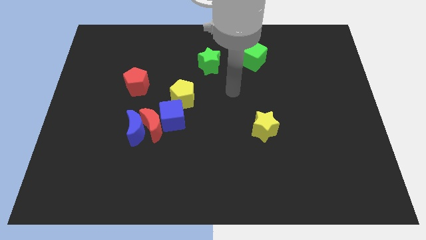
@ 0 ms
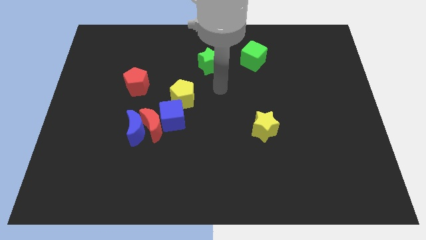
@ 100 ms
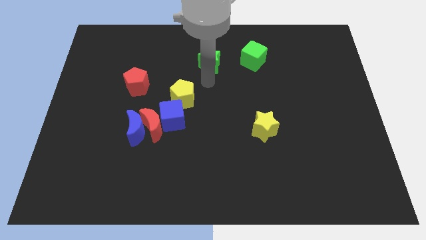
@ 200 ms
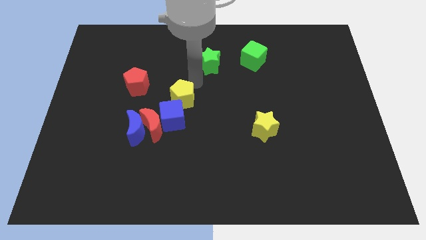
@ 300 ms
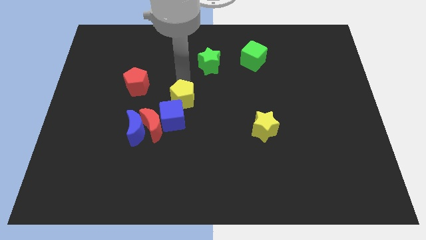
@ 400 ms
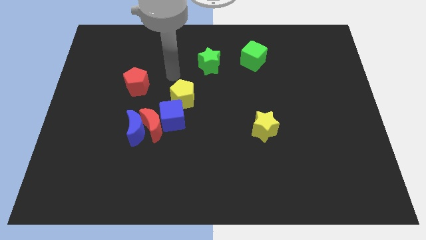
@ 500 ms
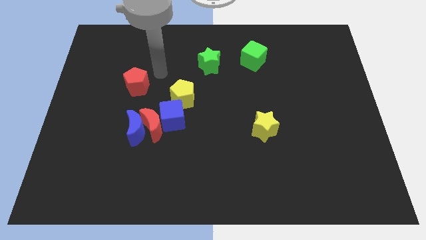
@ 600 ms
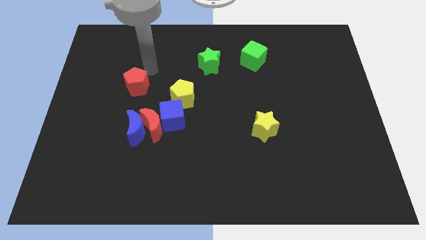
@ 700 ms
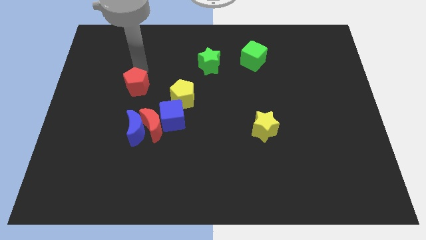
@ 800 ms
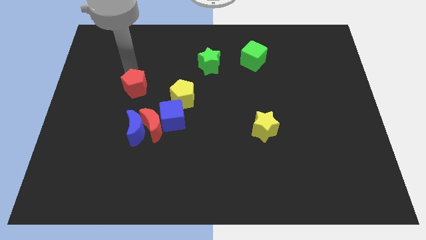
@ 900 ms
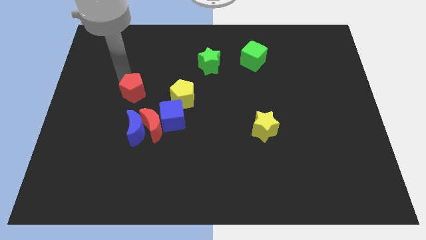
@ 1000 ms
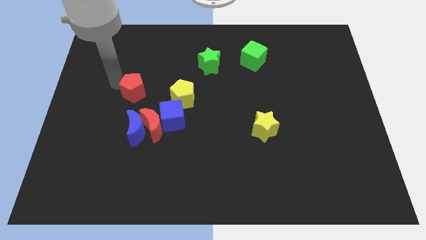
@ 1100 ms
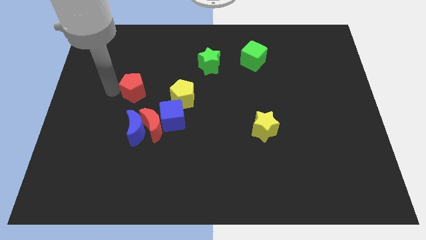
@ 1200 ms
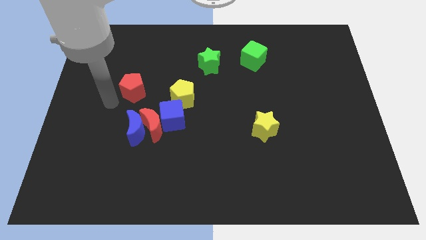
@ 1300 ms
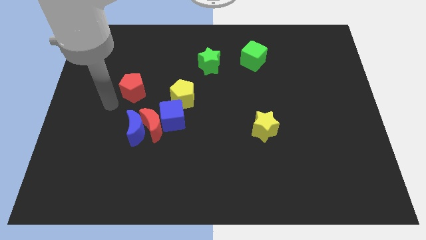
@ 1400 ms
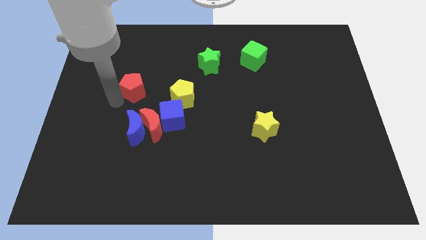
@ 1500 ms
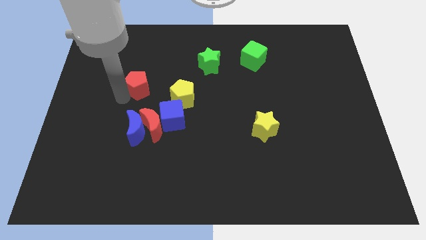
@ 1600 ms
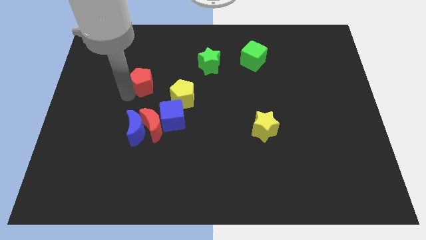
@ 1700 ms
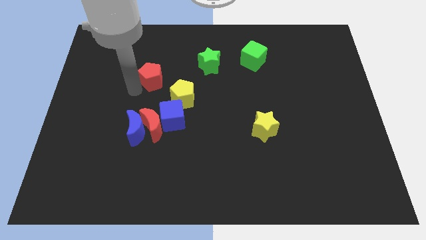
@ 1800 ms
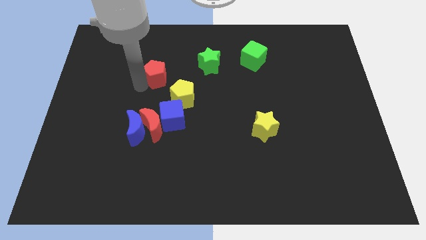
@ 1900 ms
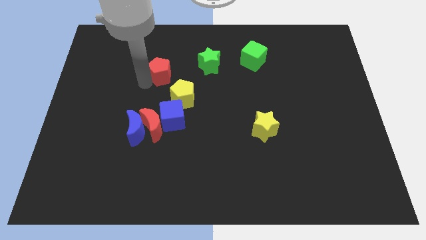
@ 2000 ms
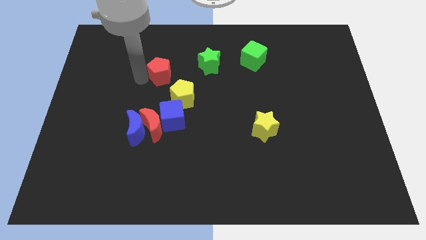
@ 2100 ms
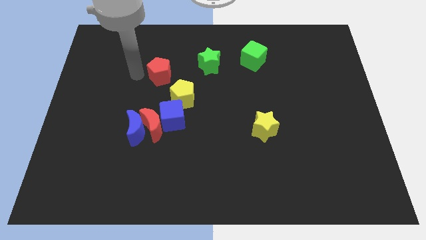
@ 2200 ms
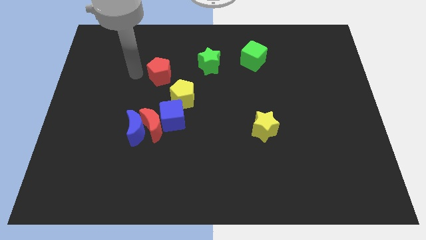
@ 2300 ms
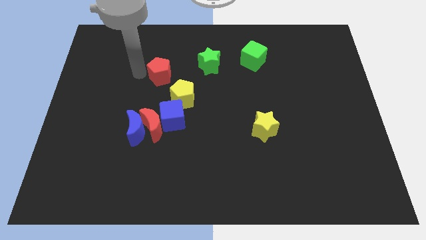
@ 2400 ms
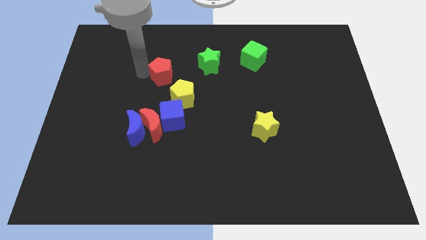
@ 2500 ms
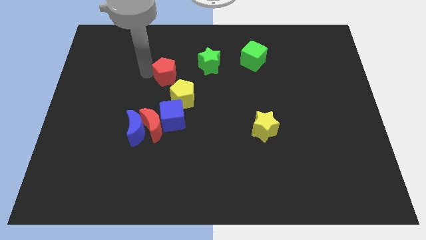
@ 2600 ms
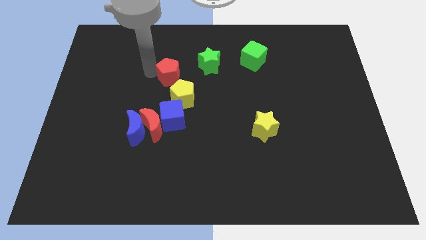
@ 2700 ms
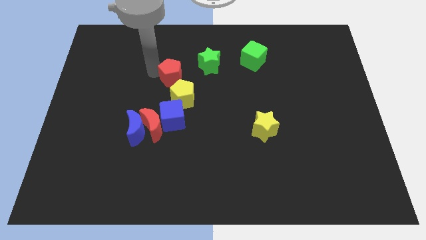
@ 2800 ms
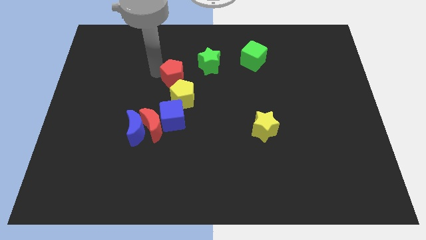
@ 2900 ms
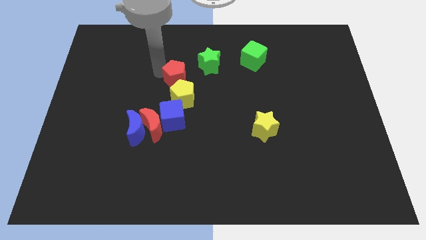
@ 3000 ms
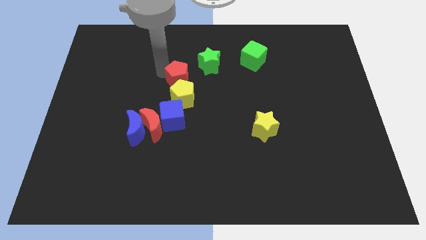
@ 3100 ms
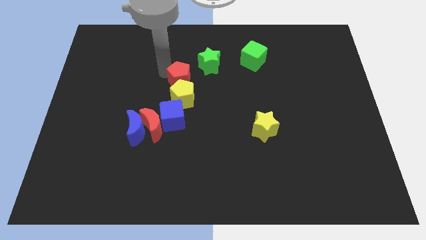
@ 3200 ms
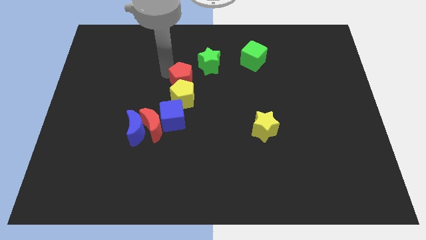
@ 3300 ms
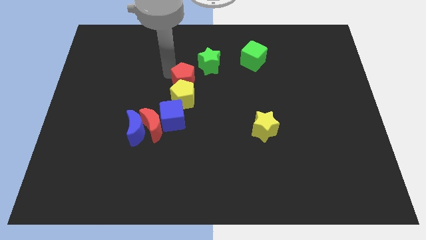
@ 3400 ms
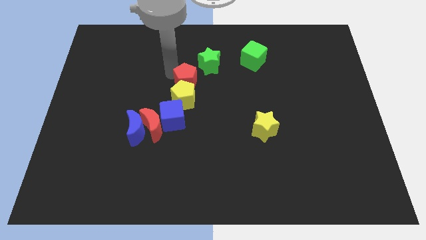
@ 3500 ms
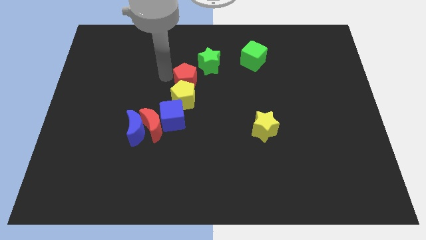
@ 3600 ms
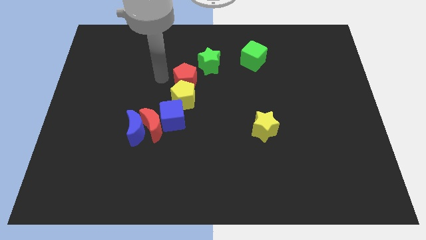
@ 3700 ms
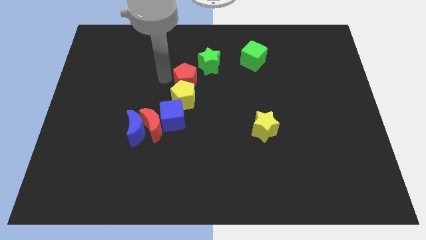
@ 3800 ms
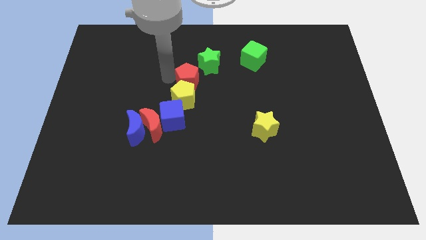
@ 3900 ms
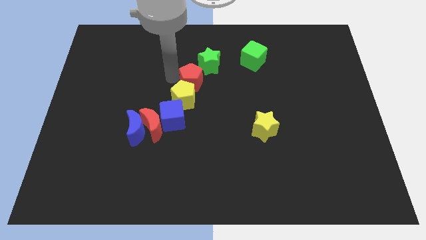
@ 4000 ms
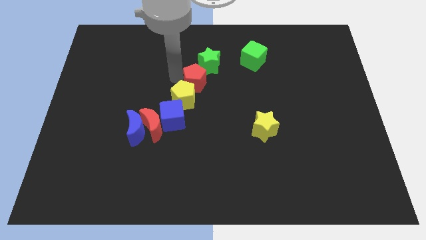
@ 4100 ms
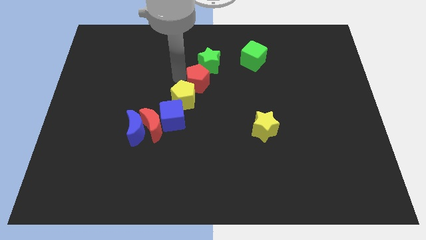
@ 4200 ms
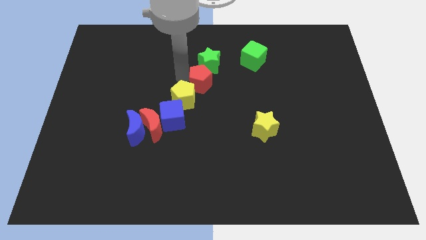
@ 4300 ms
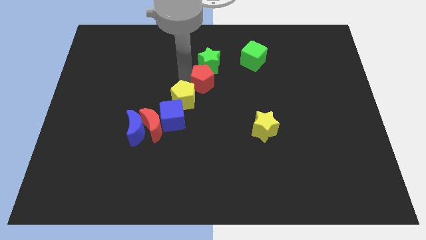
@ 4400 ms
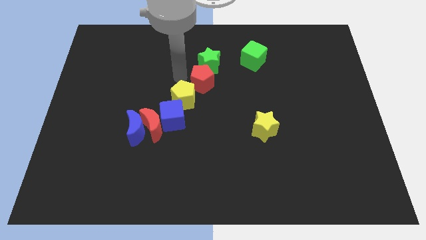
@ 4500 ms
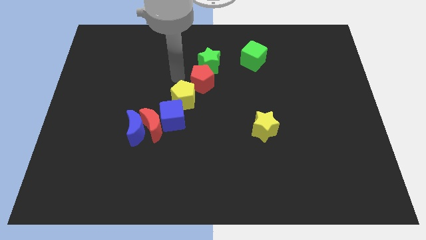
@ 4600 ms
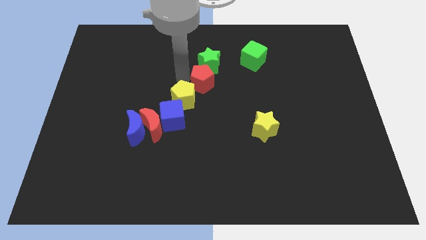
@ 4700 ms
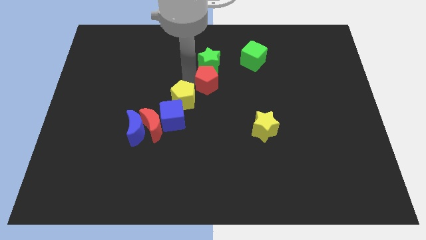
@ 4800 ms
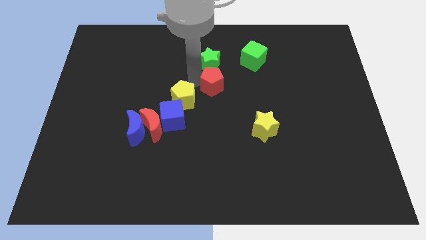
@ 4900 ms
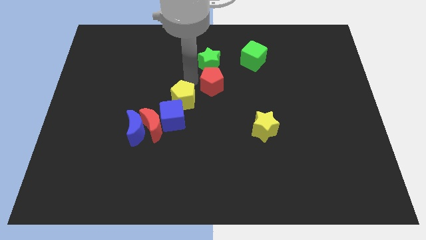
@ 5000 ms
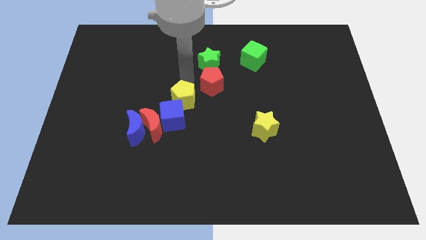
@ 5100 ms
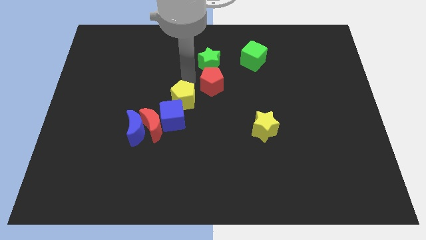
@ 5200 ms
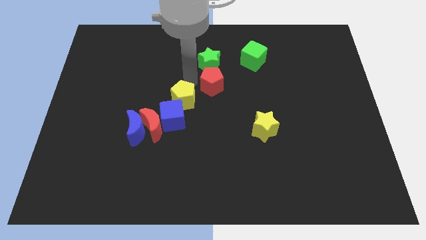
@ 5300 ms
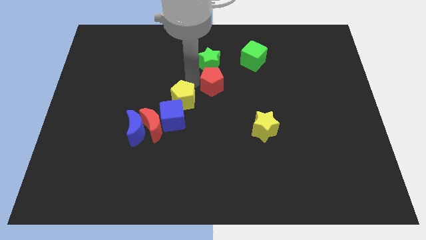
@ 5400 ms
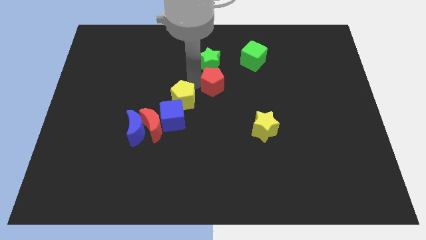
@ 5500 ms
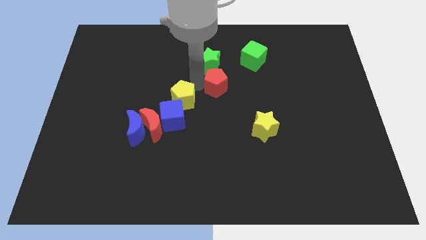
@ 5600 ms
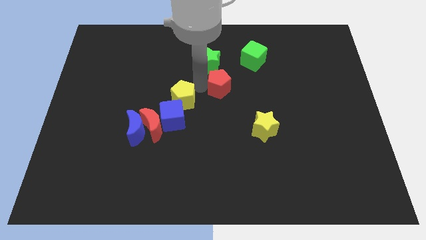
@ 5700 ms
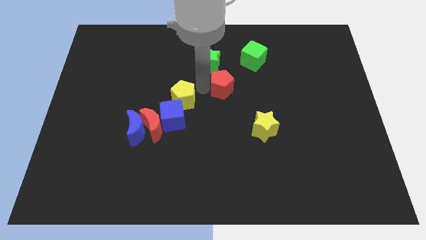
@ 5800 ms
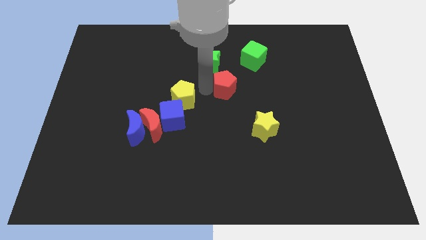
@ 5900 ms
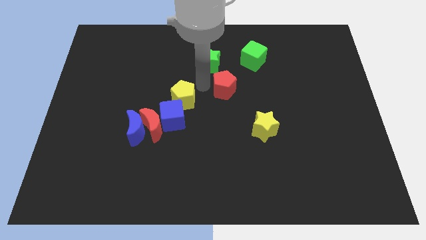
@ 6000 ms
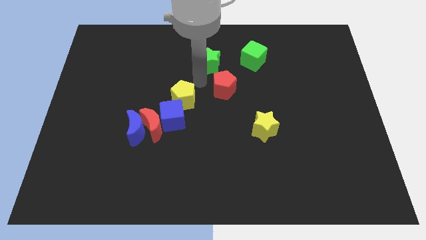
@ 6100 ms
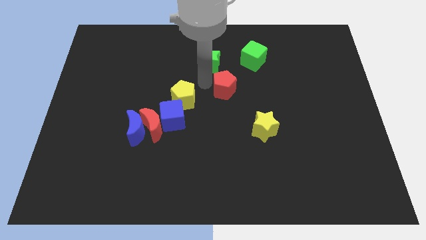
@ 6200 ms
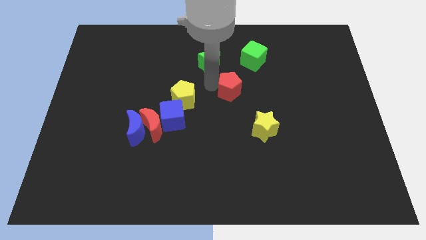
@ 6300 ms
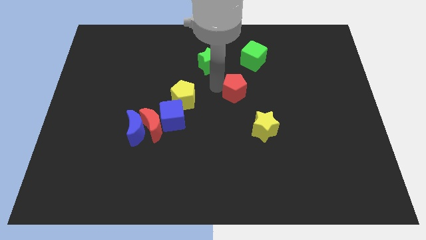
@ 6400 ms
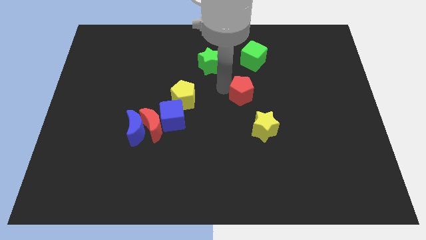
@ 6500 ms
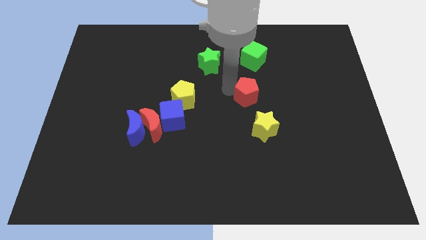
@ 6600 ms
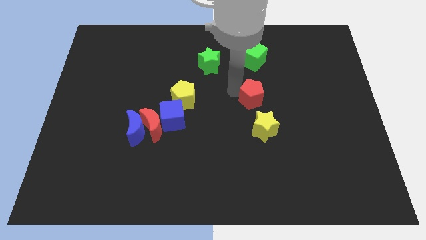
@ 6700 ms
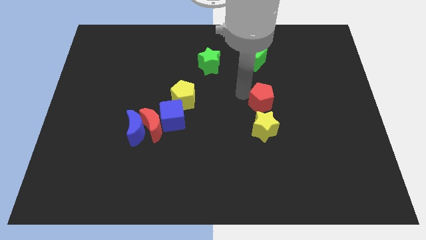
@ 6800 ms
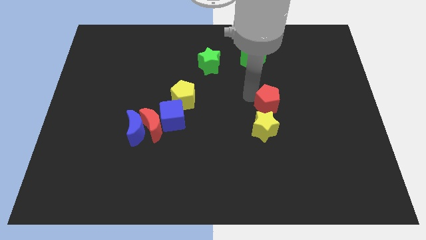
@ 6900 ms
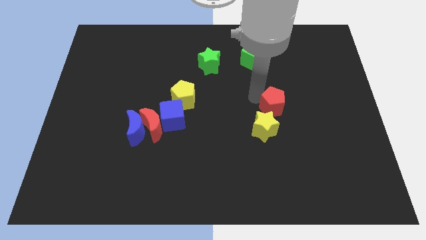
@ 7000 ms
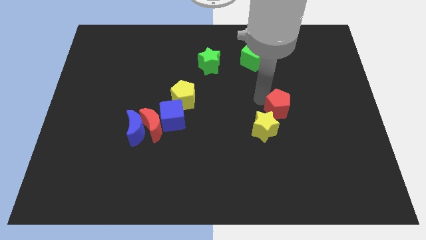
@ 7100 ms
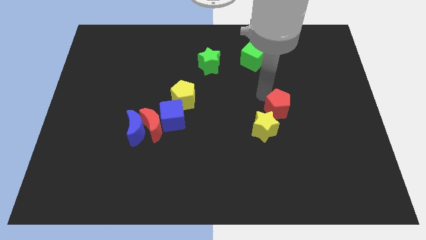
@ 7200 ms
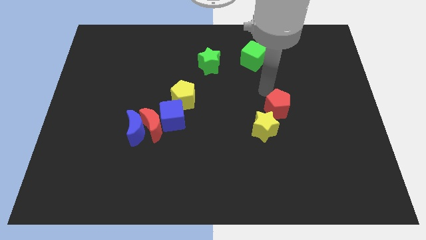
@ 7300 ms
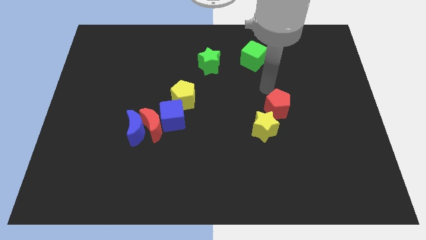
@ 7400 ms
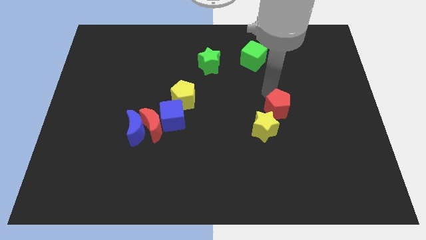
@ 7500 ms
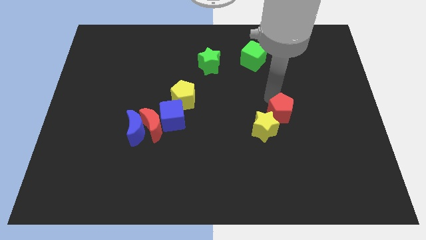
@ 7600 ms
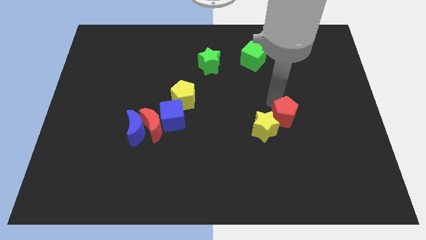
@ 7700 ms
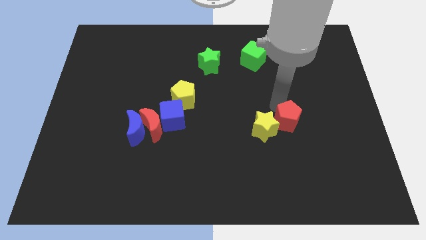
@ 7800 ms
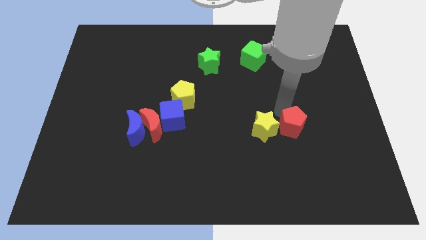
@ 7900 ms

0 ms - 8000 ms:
move the red pentagon to the bottom right side of the yellow star

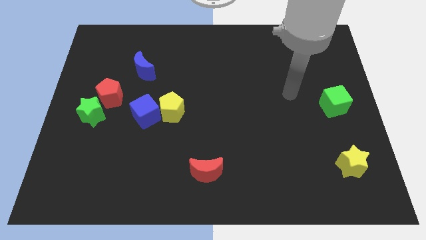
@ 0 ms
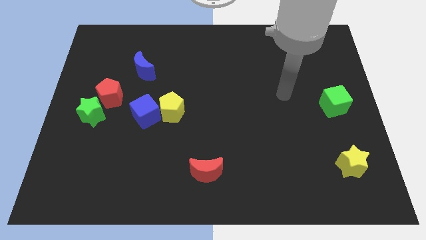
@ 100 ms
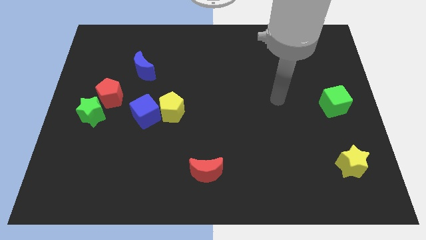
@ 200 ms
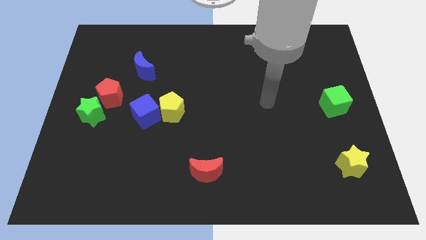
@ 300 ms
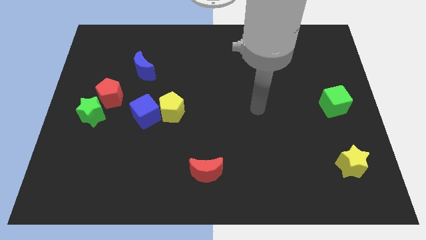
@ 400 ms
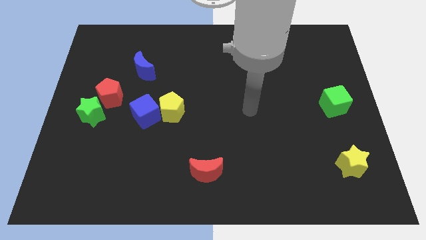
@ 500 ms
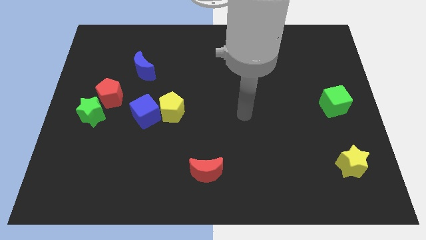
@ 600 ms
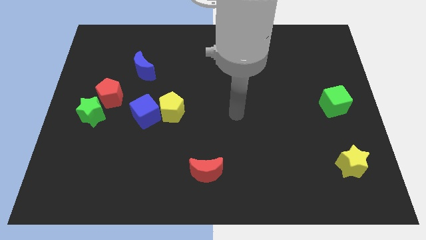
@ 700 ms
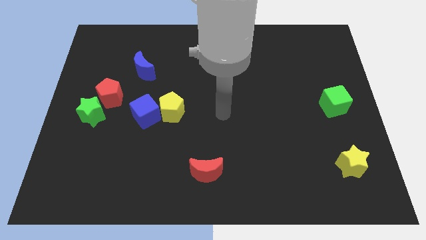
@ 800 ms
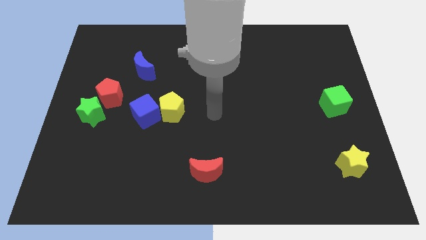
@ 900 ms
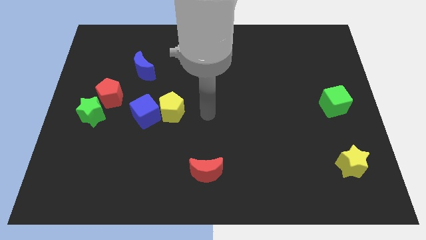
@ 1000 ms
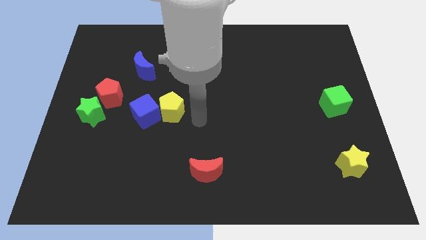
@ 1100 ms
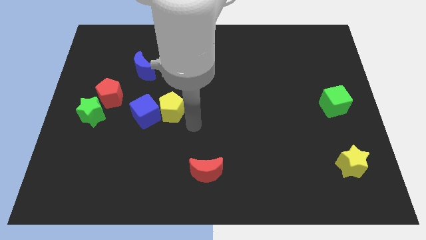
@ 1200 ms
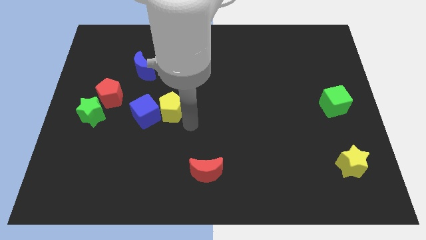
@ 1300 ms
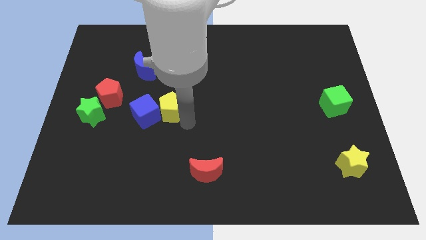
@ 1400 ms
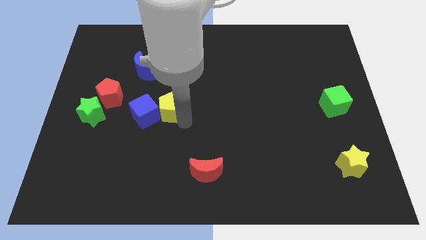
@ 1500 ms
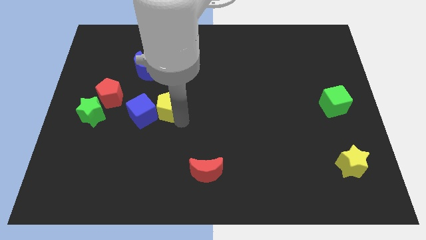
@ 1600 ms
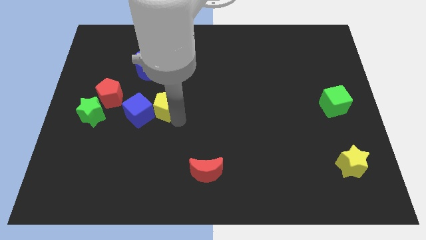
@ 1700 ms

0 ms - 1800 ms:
slide the yellow pentagon to the right of the red pentagon
